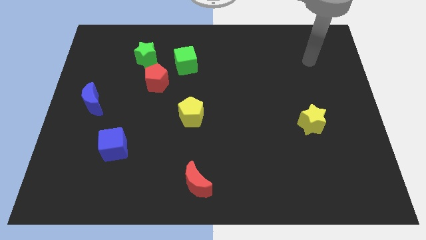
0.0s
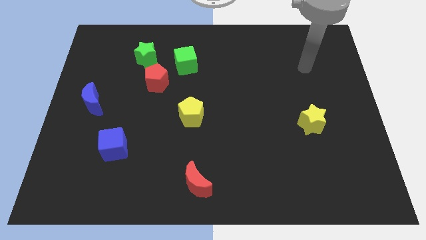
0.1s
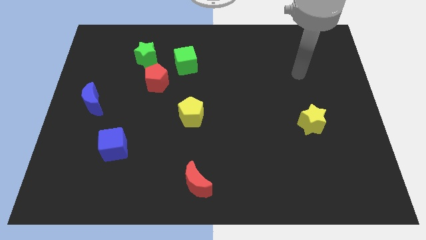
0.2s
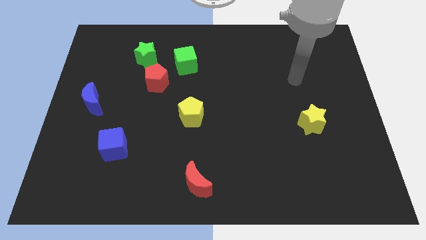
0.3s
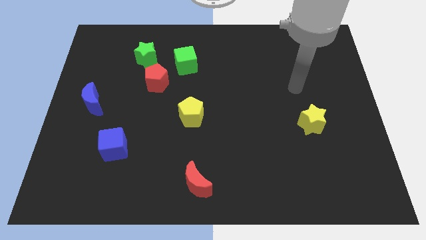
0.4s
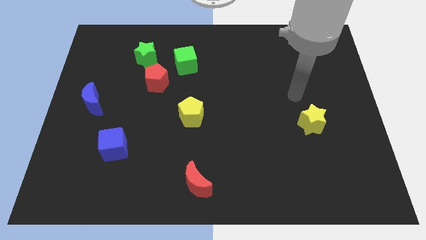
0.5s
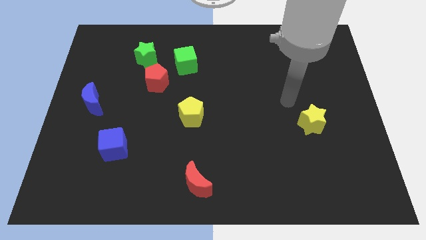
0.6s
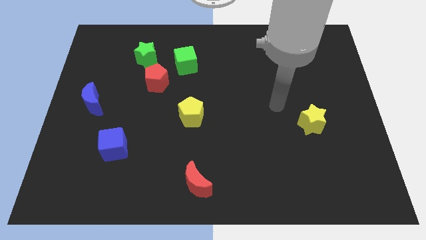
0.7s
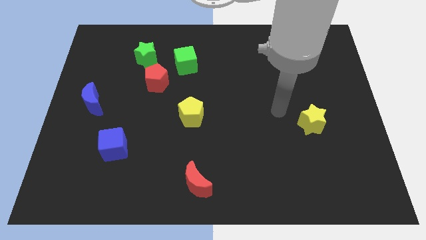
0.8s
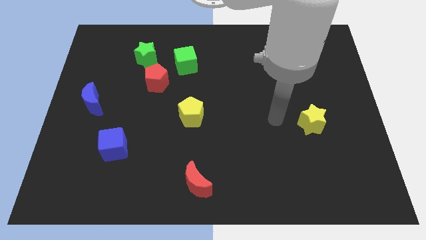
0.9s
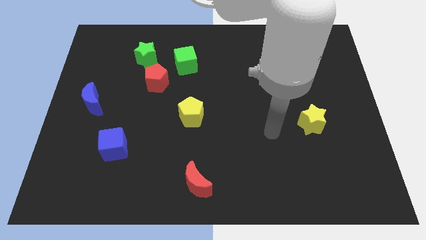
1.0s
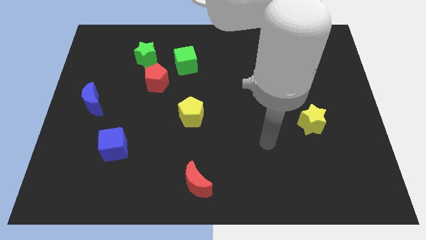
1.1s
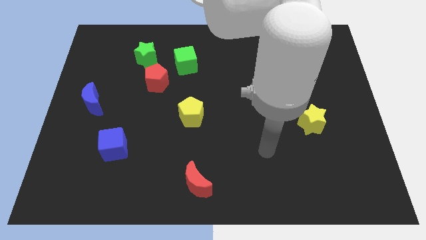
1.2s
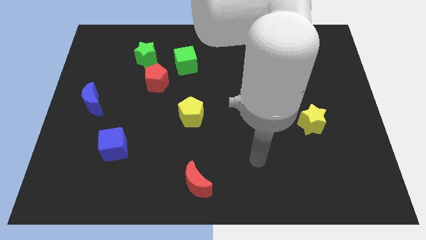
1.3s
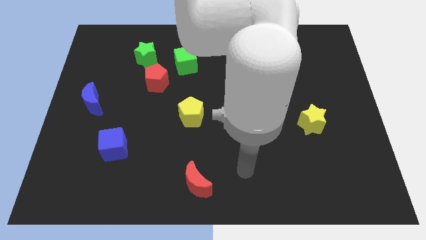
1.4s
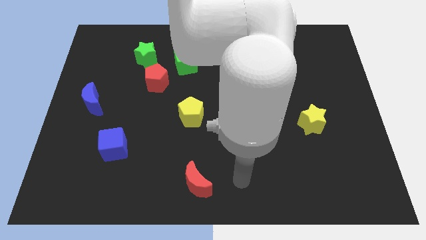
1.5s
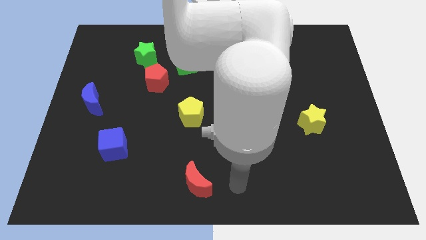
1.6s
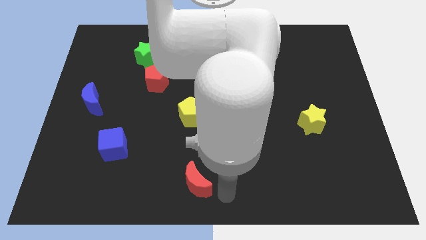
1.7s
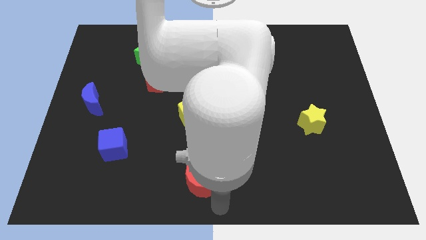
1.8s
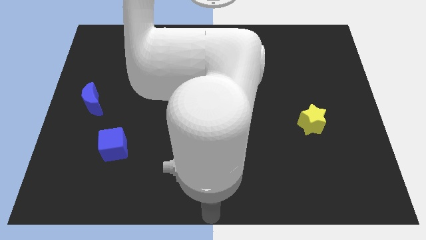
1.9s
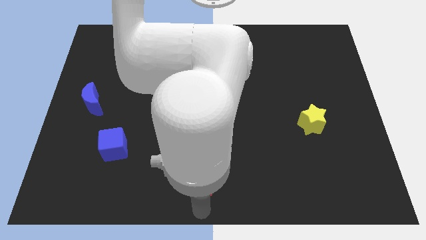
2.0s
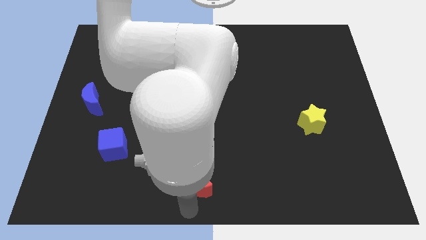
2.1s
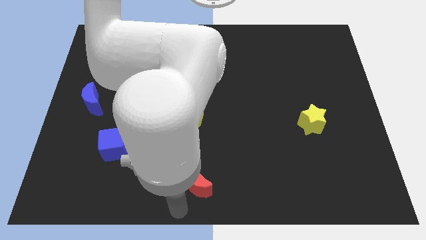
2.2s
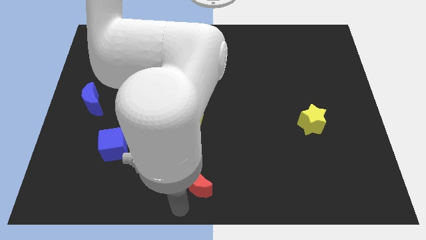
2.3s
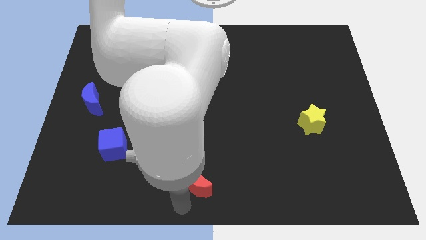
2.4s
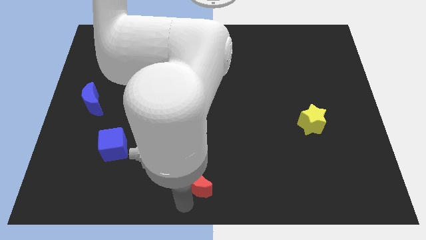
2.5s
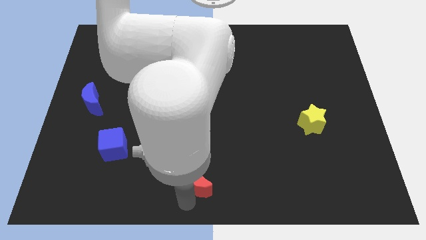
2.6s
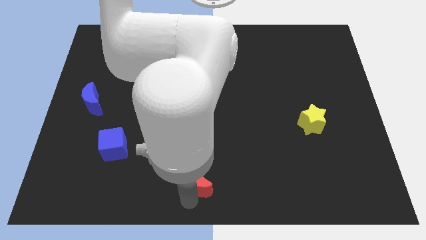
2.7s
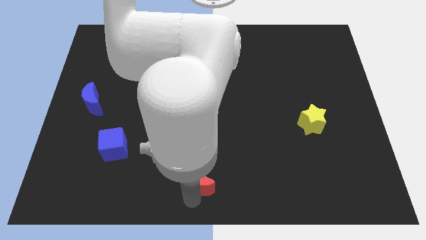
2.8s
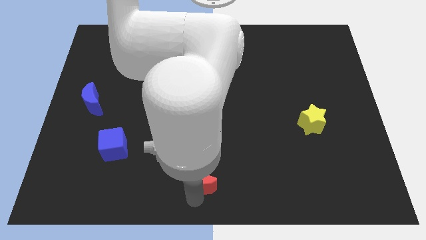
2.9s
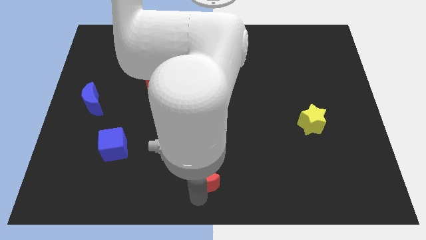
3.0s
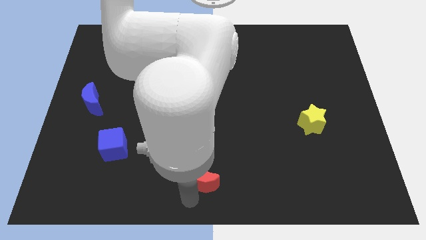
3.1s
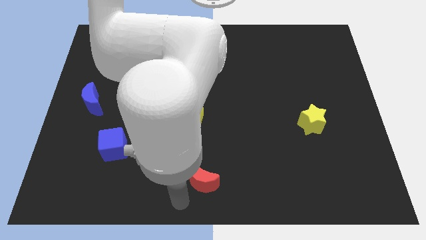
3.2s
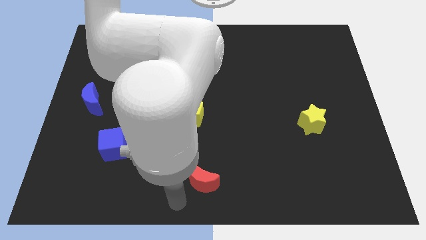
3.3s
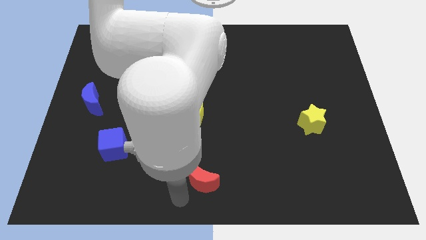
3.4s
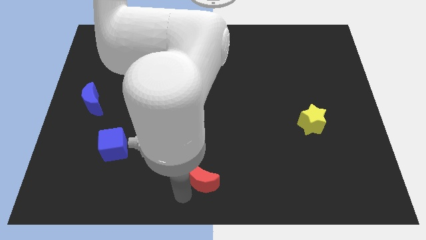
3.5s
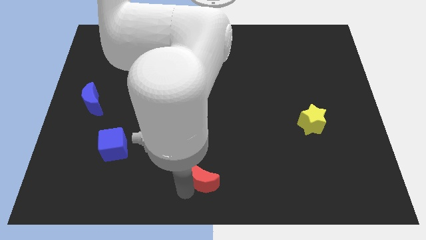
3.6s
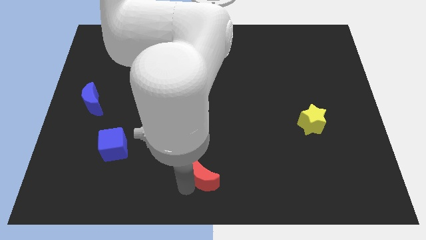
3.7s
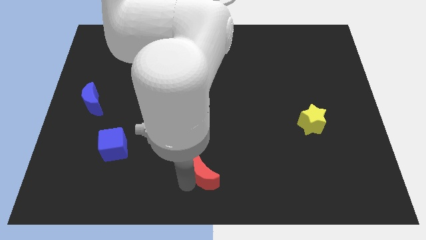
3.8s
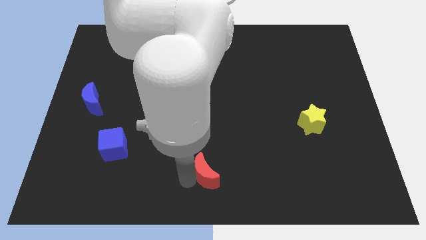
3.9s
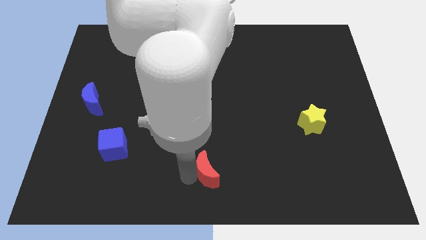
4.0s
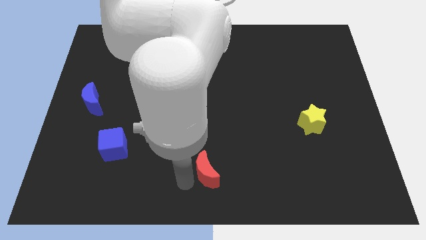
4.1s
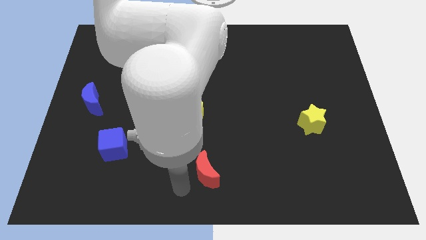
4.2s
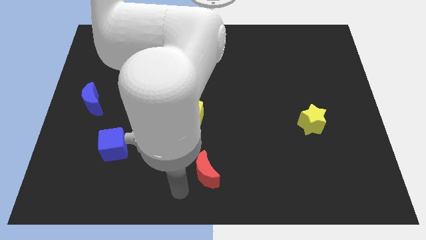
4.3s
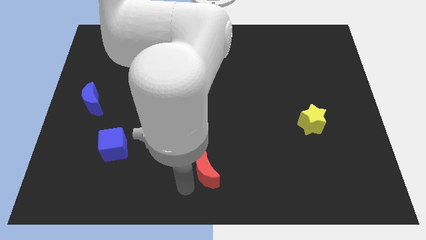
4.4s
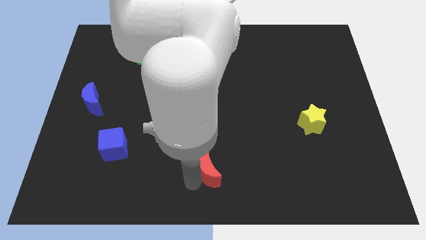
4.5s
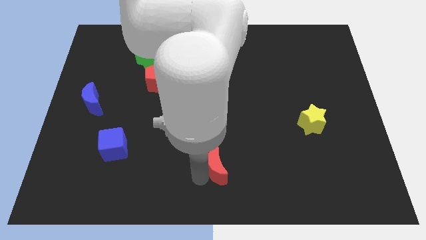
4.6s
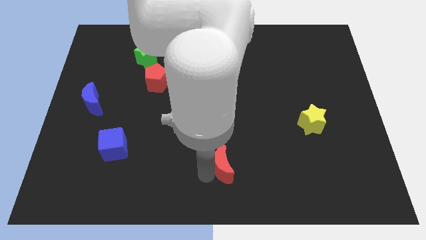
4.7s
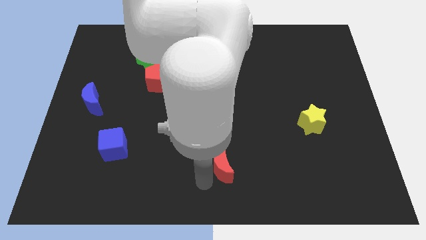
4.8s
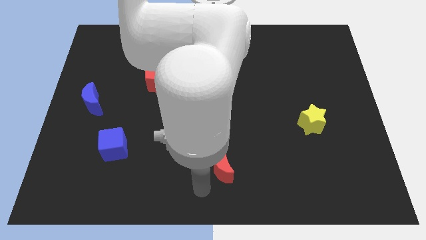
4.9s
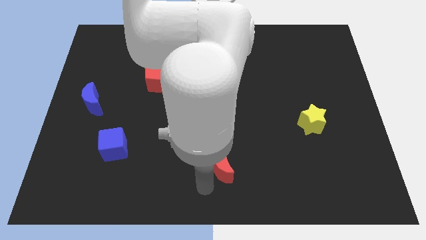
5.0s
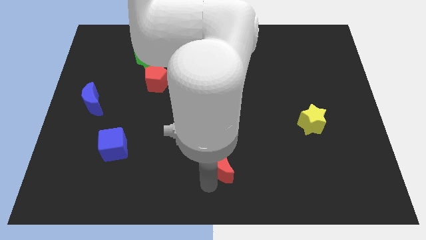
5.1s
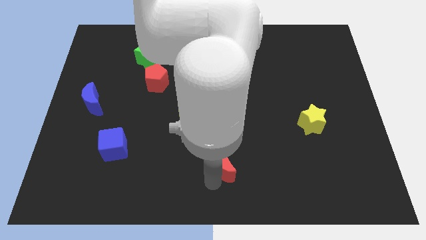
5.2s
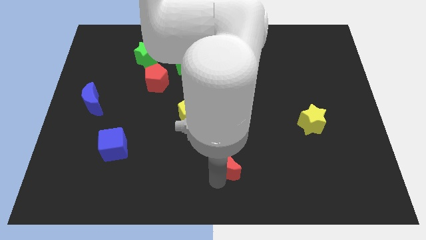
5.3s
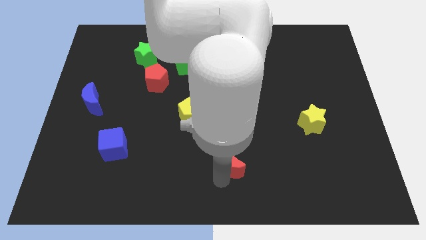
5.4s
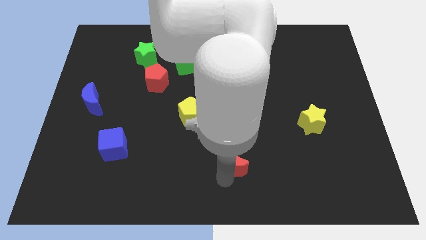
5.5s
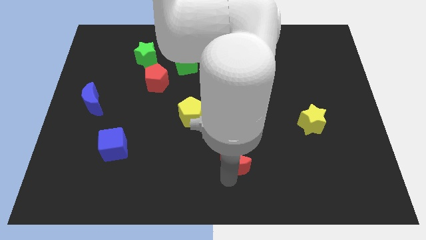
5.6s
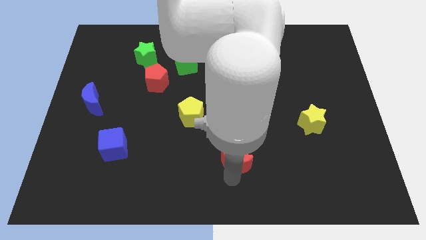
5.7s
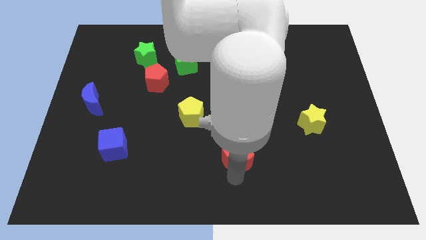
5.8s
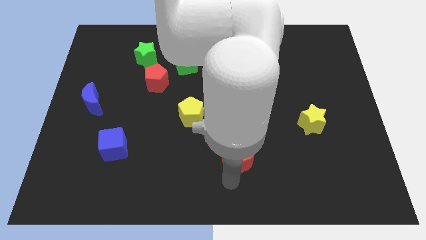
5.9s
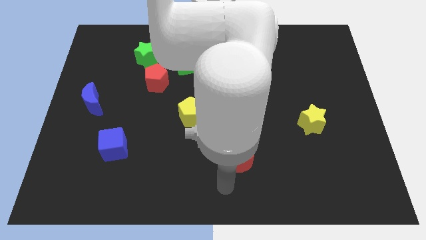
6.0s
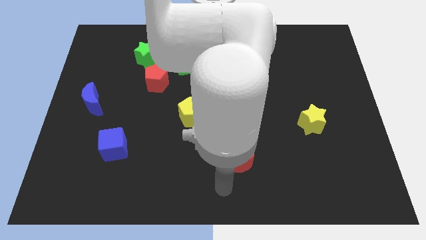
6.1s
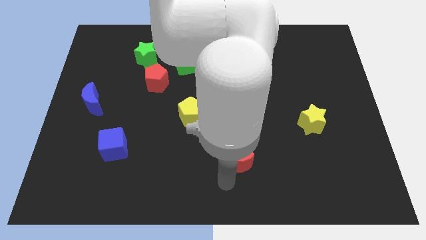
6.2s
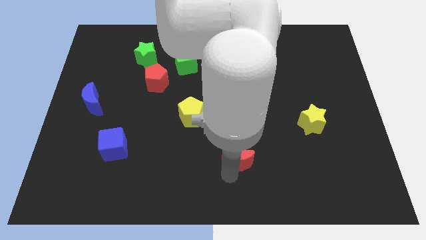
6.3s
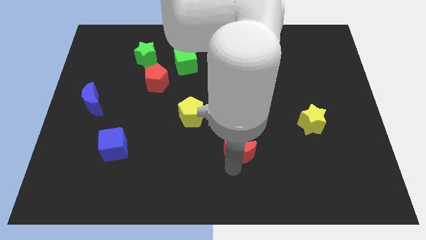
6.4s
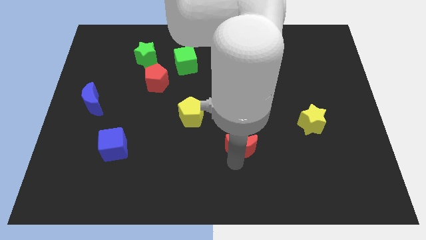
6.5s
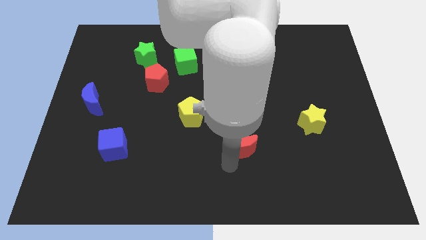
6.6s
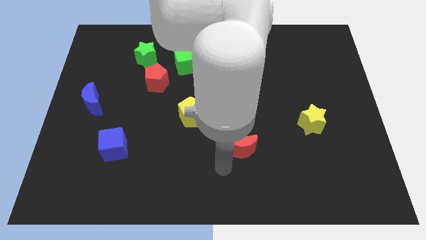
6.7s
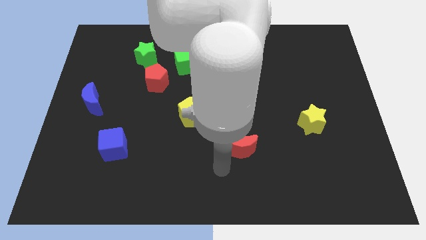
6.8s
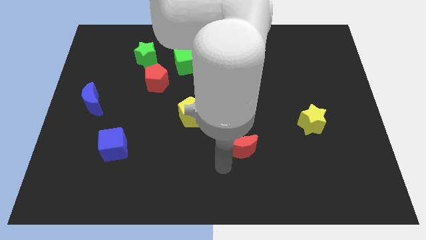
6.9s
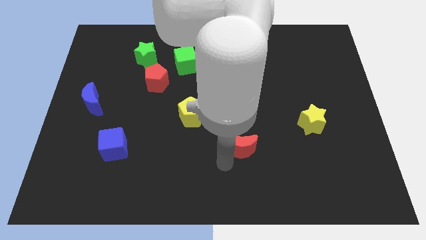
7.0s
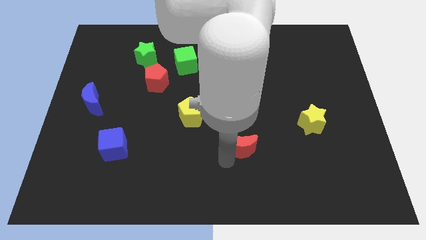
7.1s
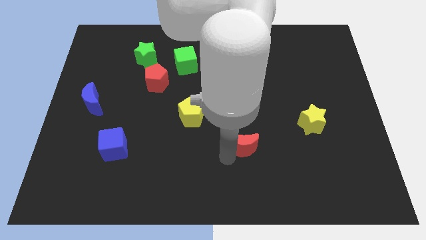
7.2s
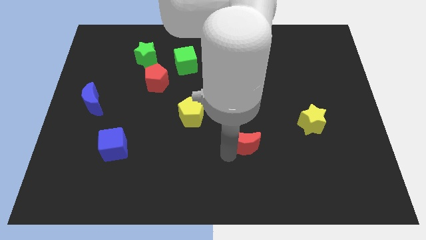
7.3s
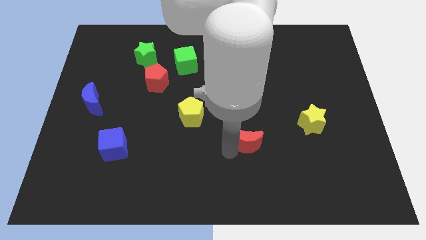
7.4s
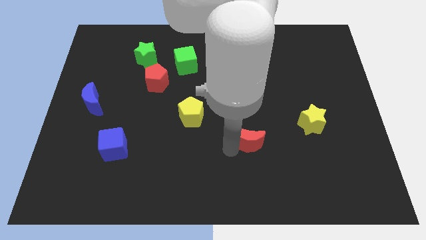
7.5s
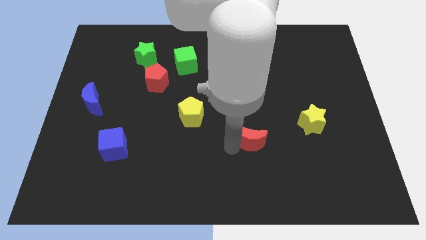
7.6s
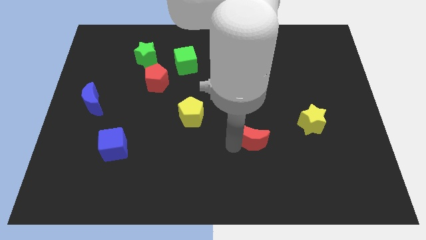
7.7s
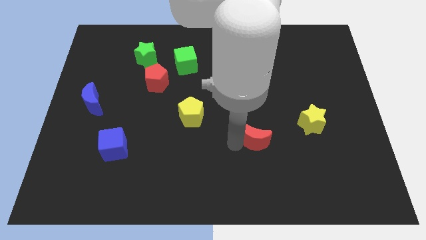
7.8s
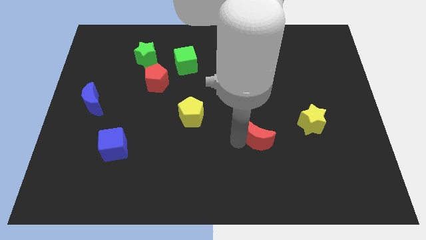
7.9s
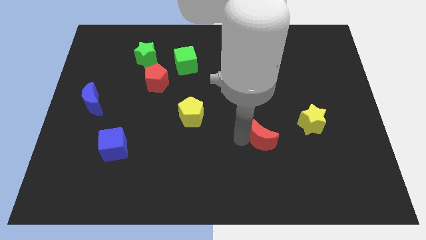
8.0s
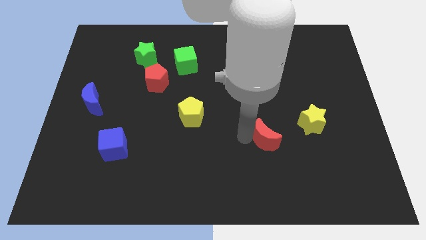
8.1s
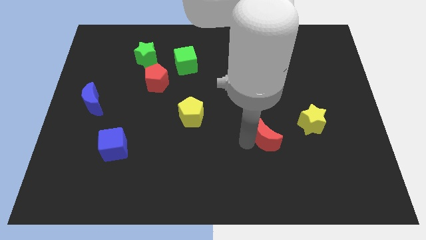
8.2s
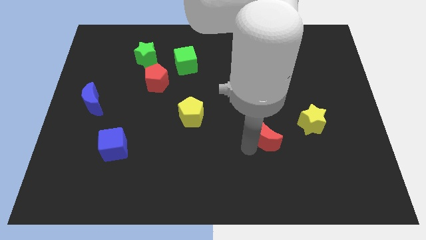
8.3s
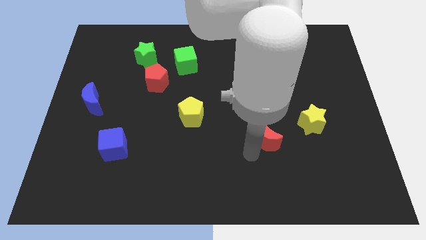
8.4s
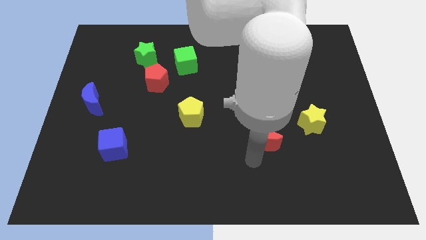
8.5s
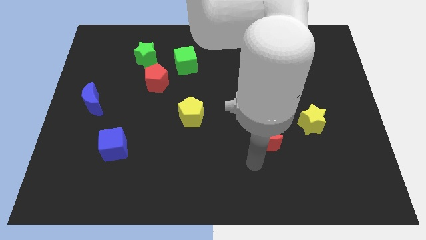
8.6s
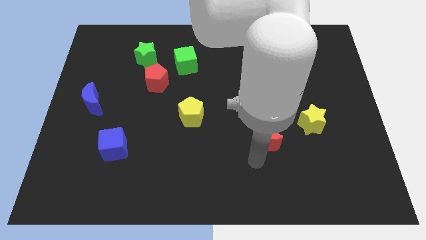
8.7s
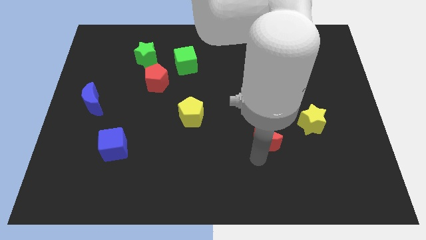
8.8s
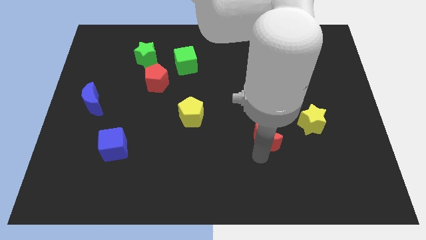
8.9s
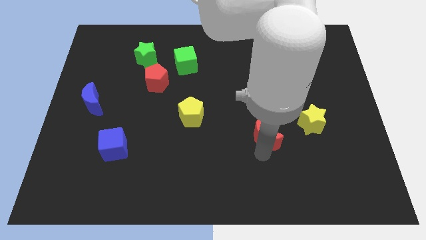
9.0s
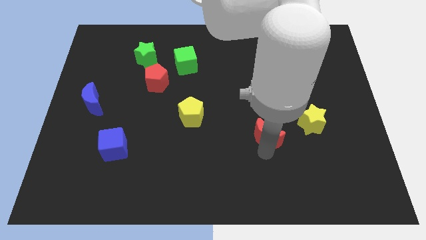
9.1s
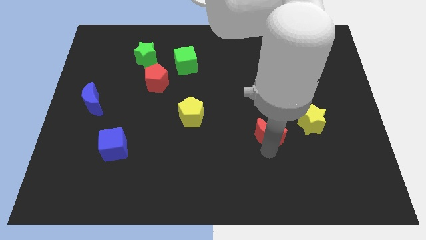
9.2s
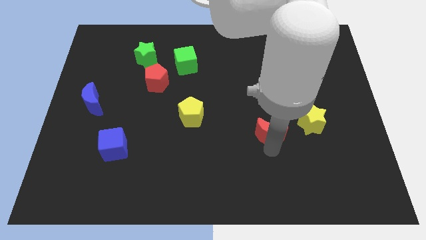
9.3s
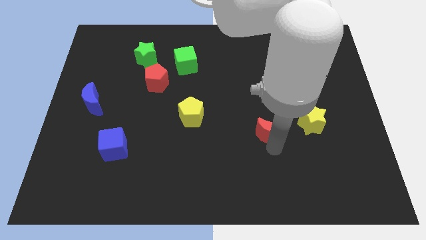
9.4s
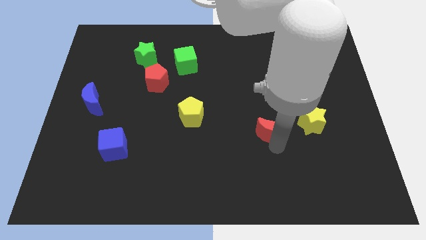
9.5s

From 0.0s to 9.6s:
push the red moon diagonally up and to the right
